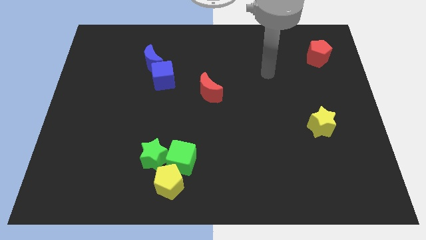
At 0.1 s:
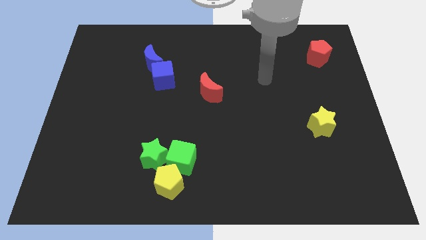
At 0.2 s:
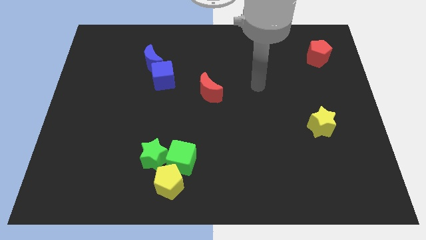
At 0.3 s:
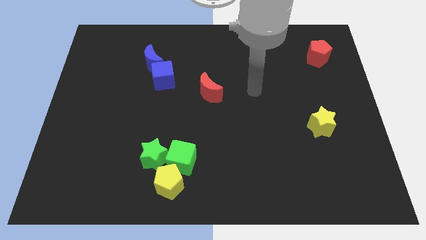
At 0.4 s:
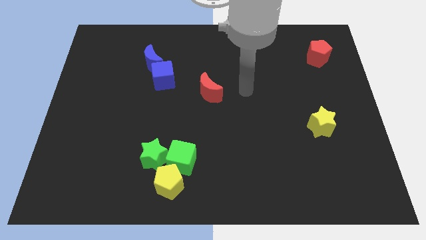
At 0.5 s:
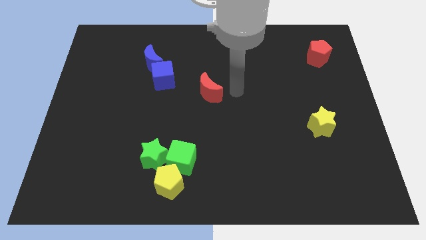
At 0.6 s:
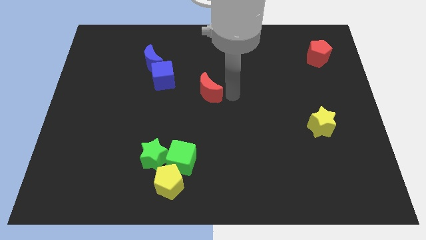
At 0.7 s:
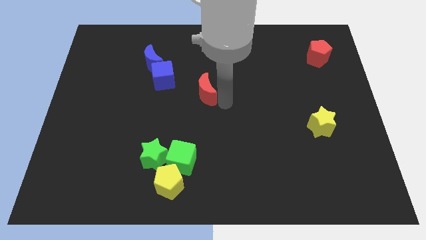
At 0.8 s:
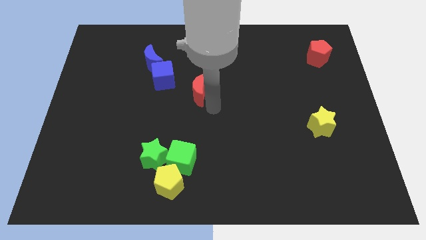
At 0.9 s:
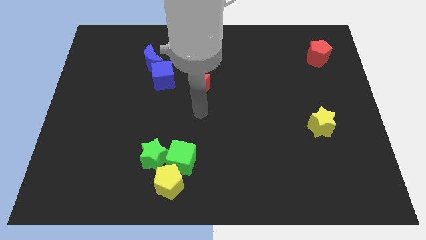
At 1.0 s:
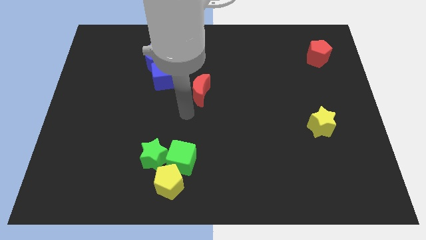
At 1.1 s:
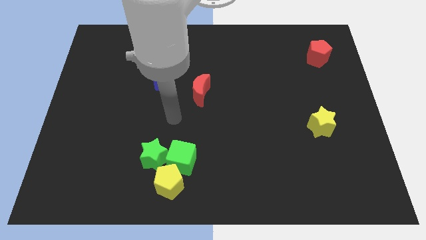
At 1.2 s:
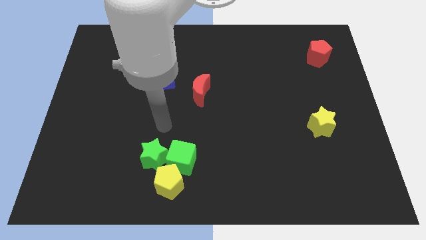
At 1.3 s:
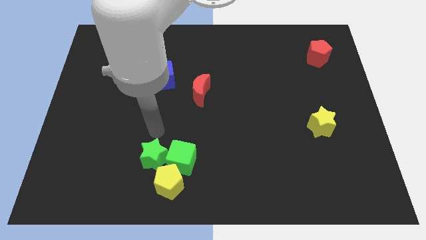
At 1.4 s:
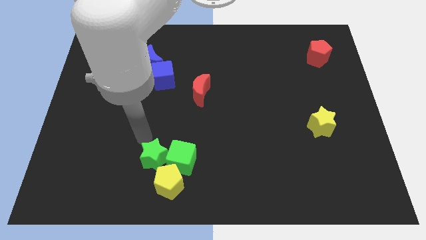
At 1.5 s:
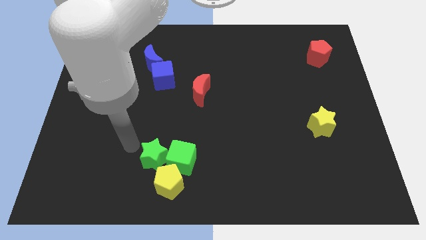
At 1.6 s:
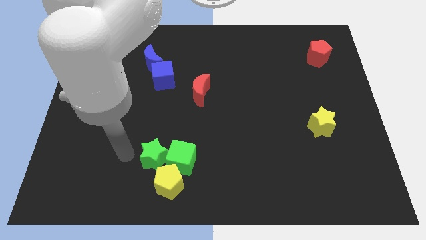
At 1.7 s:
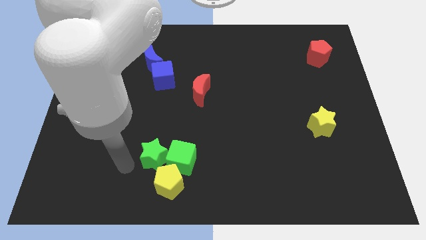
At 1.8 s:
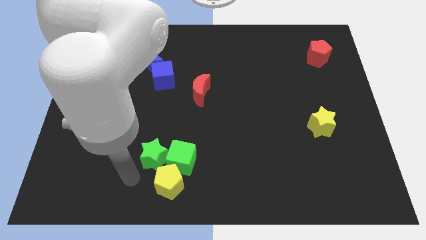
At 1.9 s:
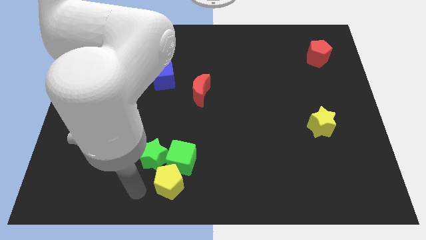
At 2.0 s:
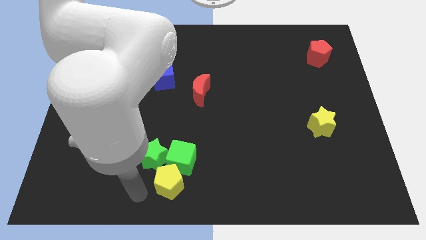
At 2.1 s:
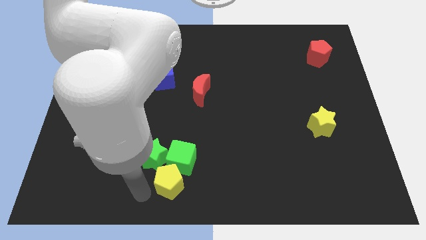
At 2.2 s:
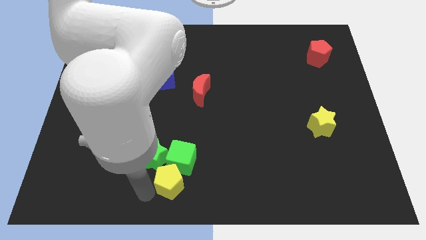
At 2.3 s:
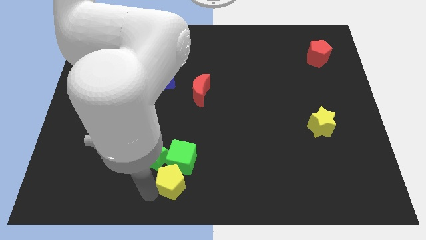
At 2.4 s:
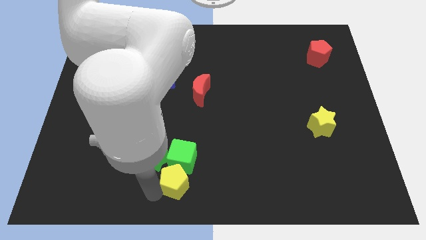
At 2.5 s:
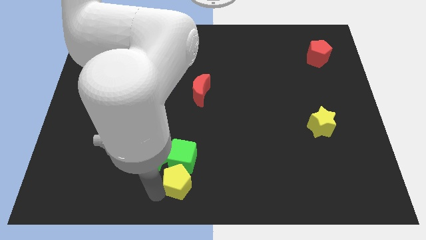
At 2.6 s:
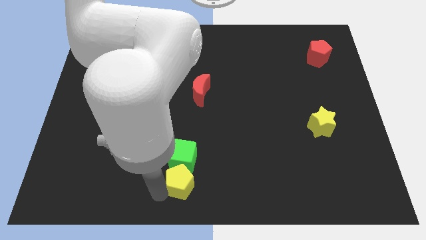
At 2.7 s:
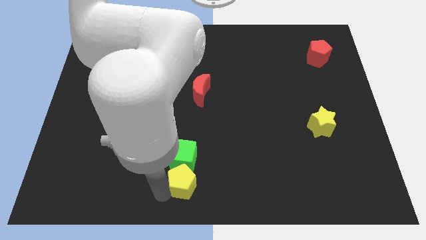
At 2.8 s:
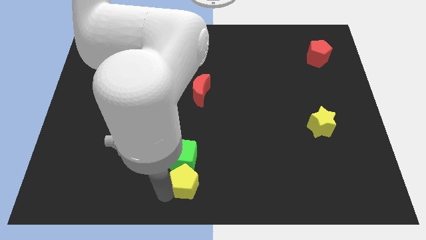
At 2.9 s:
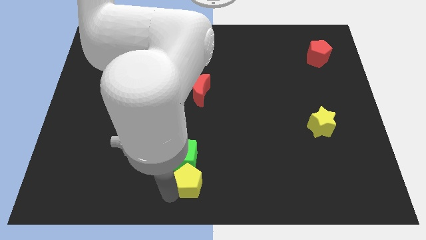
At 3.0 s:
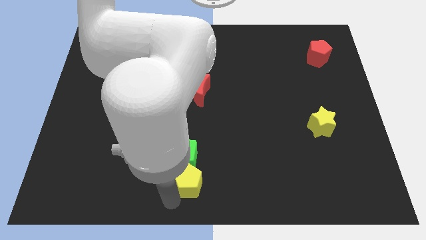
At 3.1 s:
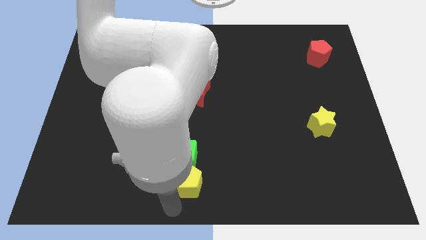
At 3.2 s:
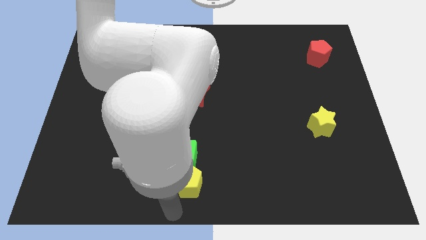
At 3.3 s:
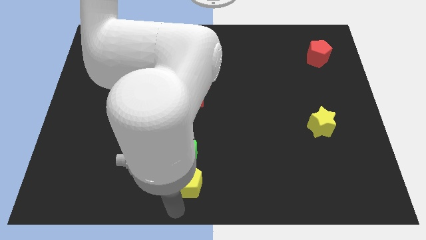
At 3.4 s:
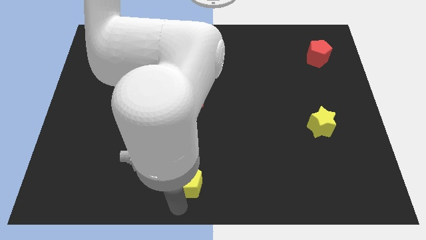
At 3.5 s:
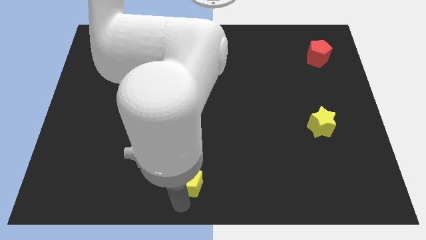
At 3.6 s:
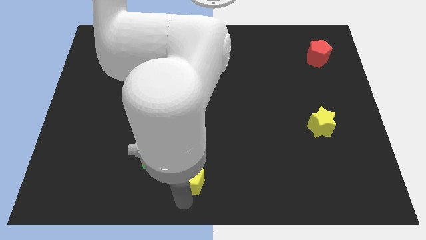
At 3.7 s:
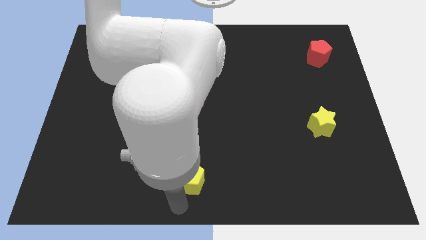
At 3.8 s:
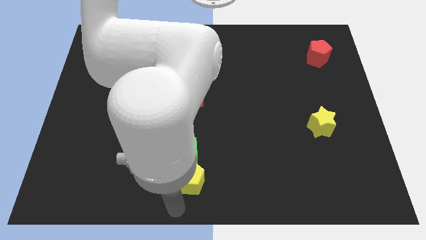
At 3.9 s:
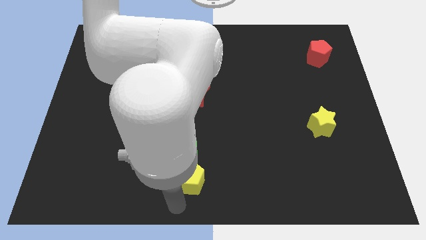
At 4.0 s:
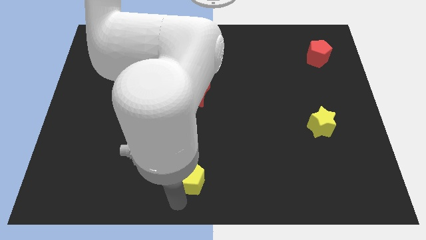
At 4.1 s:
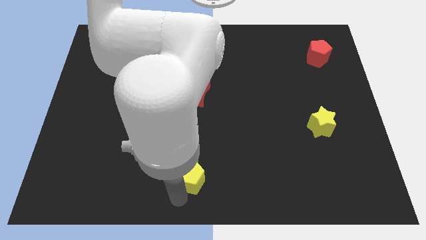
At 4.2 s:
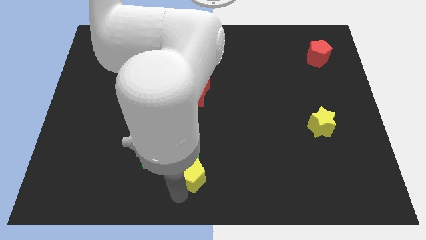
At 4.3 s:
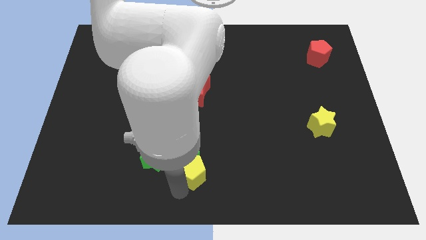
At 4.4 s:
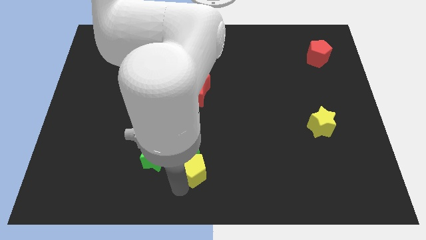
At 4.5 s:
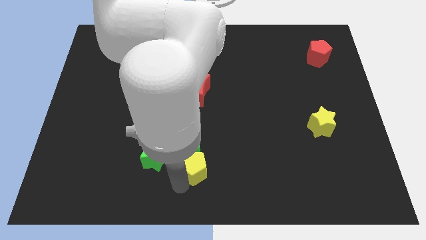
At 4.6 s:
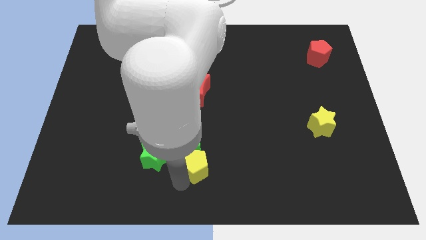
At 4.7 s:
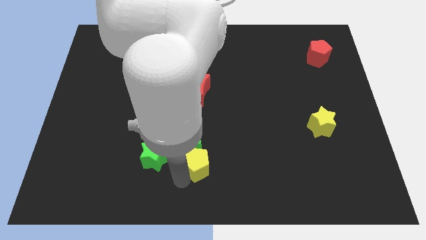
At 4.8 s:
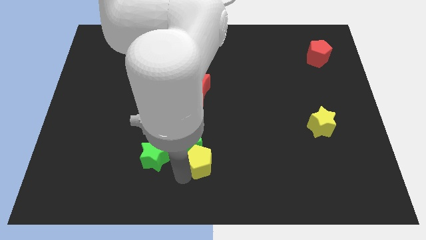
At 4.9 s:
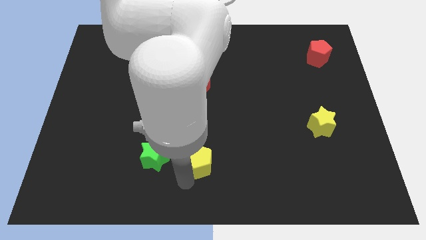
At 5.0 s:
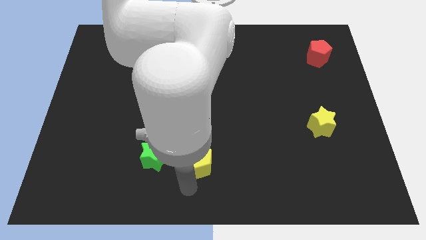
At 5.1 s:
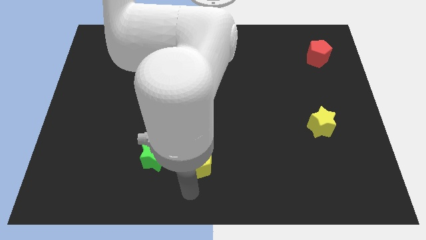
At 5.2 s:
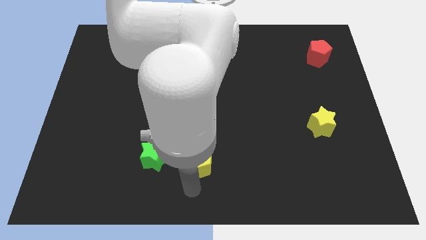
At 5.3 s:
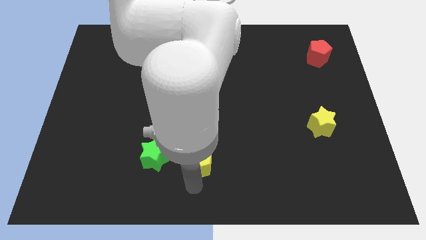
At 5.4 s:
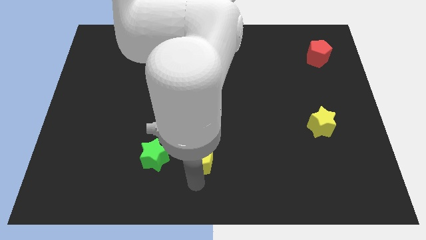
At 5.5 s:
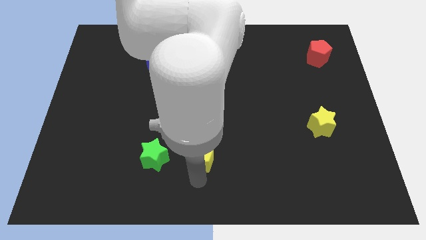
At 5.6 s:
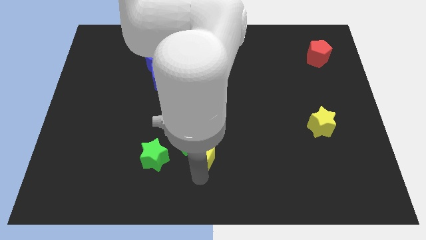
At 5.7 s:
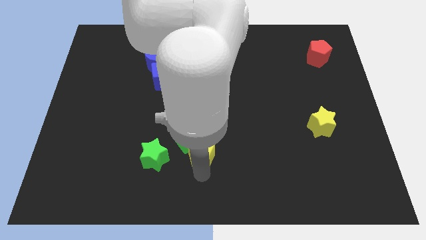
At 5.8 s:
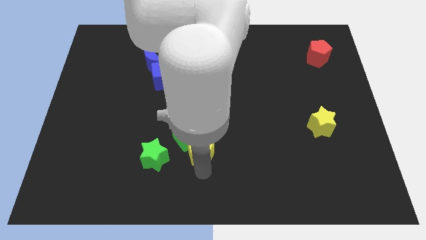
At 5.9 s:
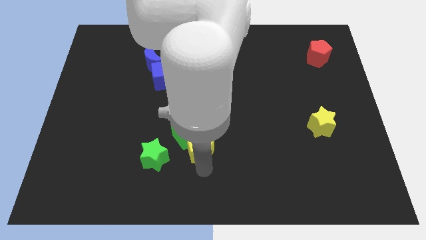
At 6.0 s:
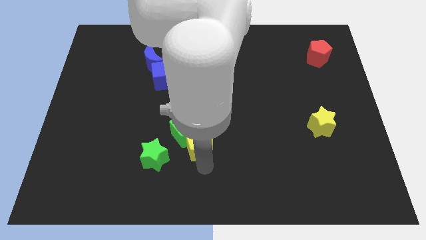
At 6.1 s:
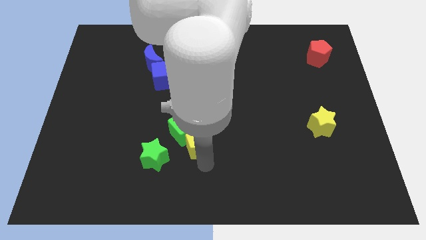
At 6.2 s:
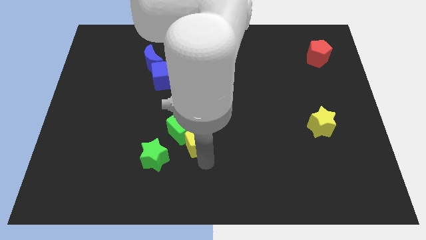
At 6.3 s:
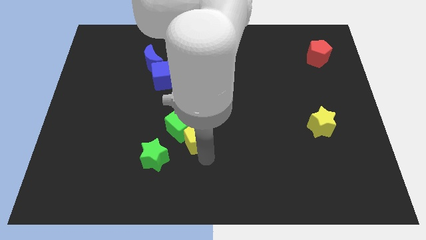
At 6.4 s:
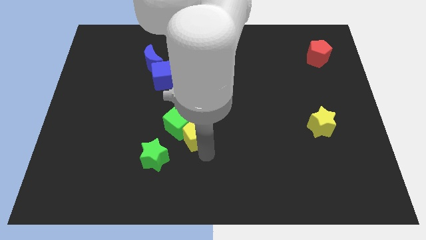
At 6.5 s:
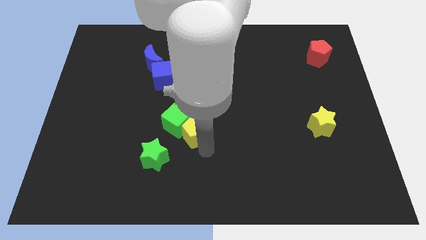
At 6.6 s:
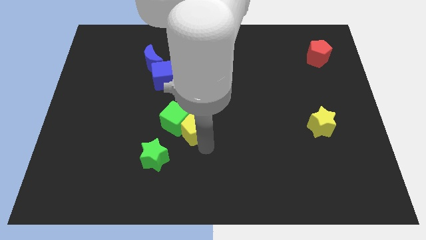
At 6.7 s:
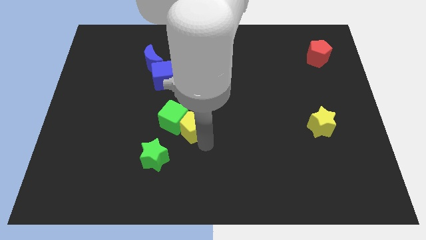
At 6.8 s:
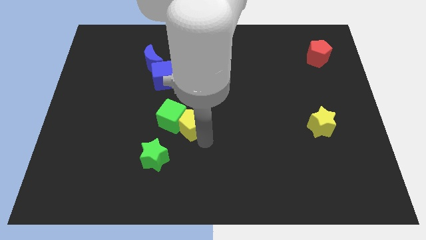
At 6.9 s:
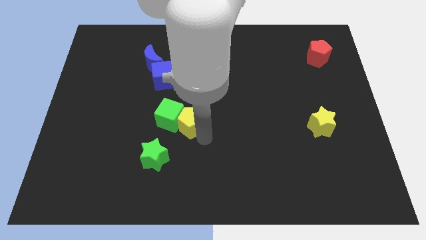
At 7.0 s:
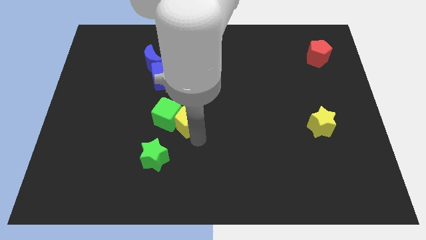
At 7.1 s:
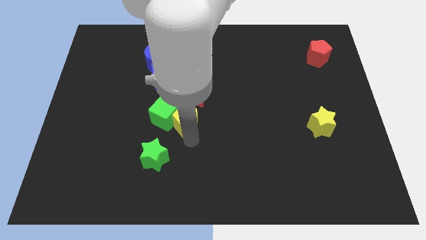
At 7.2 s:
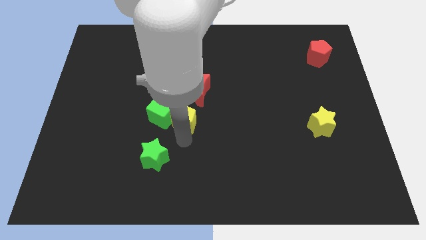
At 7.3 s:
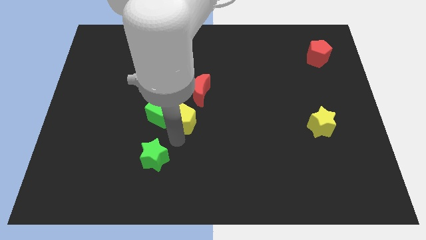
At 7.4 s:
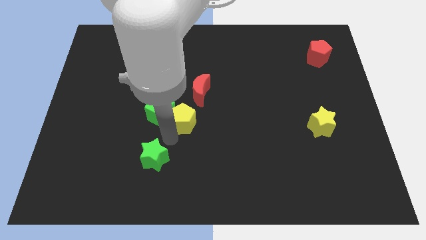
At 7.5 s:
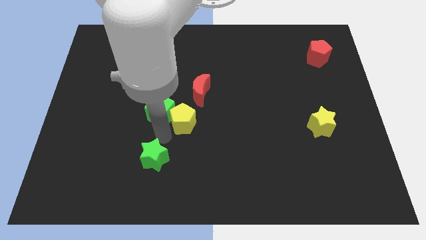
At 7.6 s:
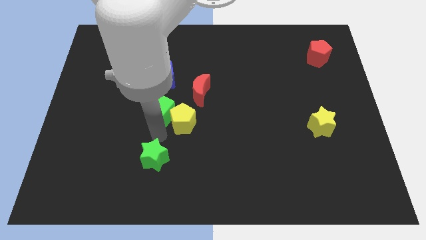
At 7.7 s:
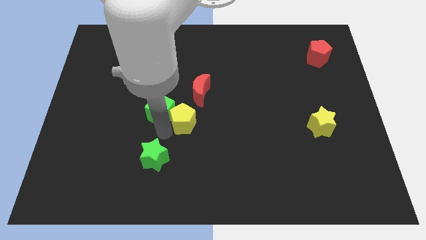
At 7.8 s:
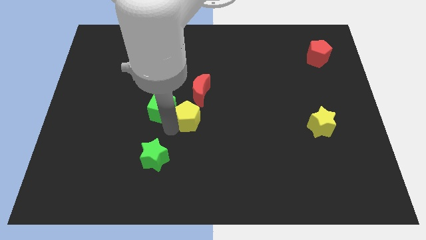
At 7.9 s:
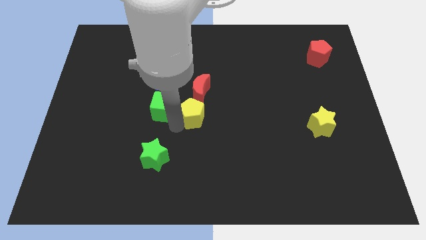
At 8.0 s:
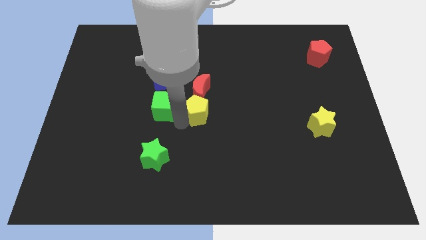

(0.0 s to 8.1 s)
put the yellow pentagon close to the red moon
